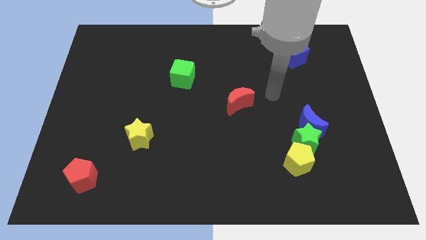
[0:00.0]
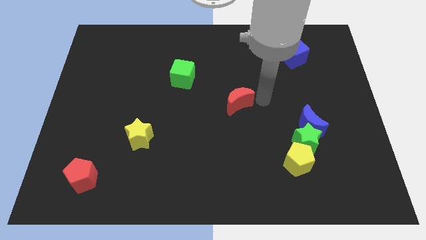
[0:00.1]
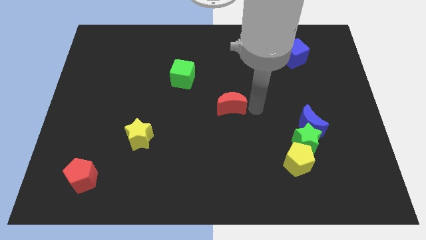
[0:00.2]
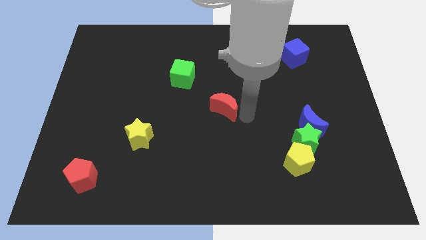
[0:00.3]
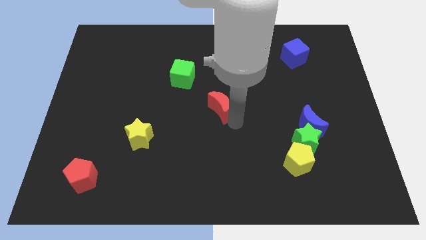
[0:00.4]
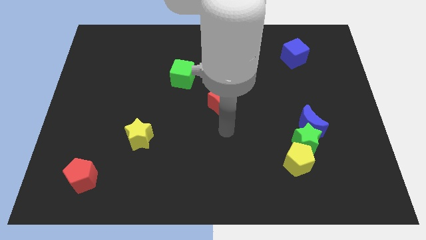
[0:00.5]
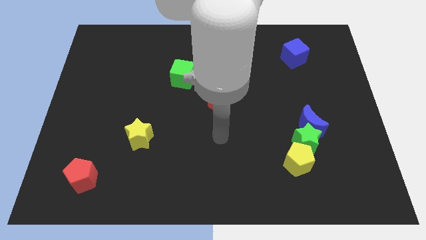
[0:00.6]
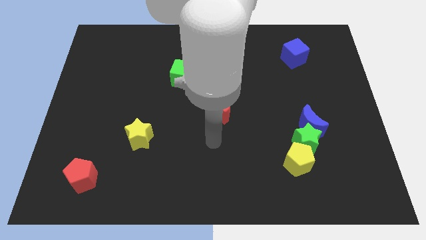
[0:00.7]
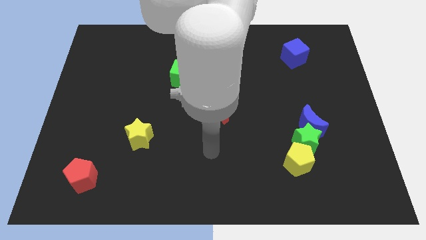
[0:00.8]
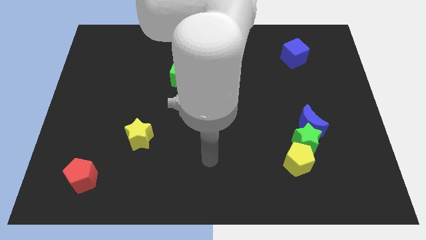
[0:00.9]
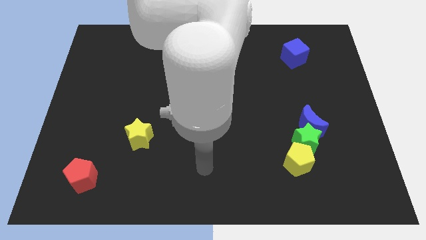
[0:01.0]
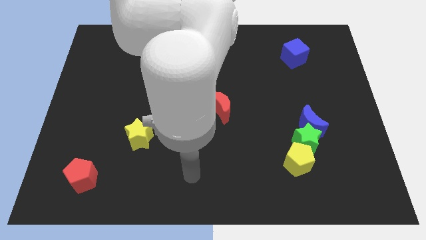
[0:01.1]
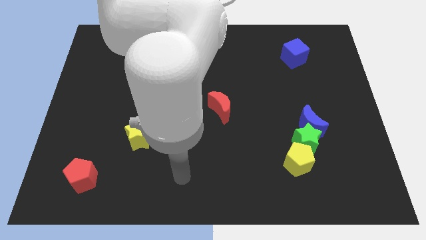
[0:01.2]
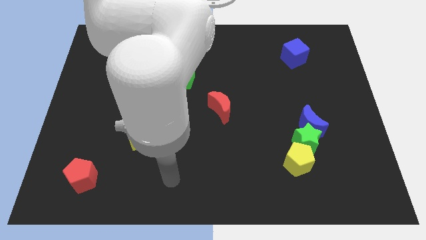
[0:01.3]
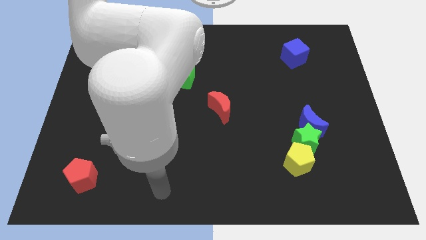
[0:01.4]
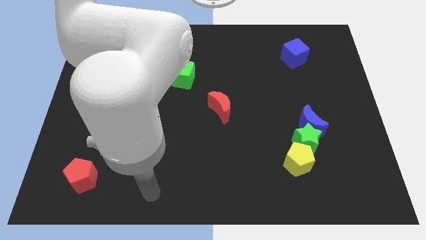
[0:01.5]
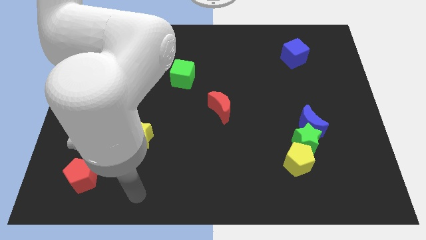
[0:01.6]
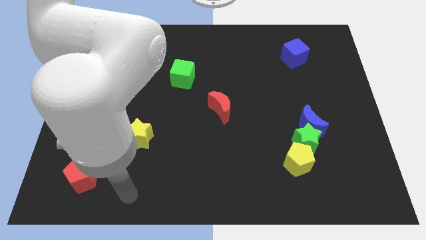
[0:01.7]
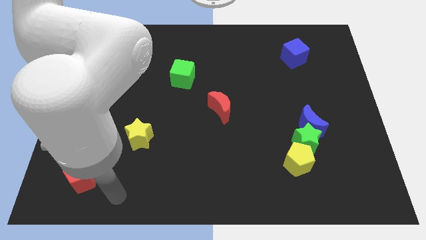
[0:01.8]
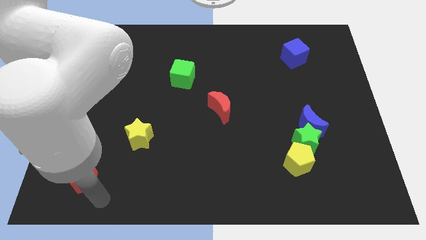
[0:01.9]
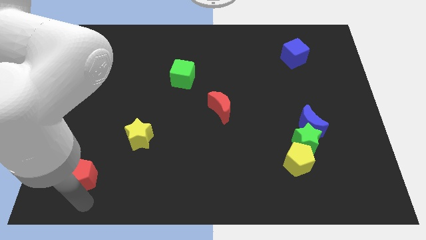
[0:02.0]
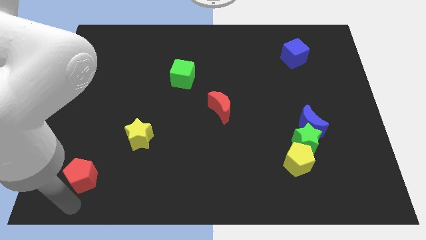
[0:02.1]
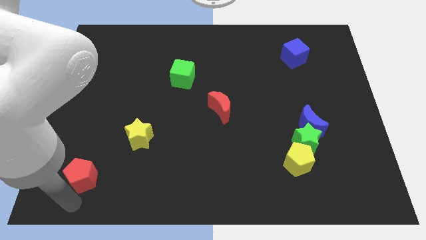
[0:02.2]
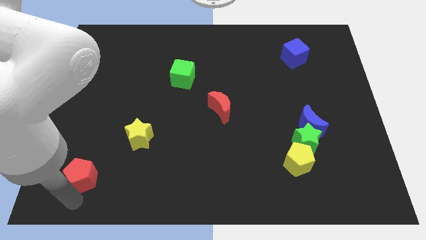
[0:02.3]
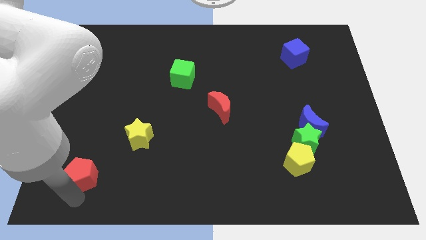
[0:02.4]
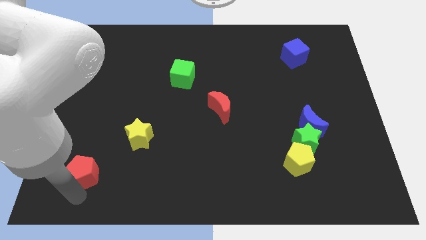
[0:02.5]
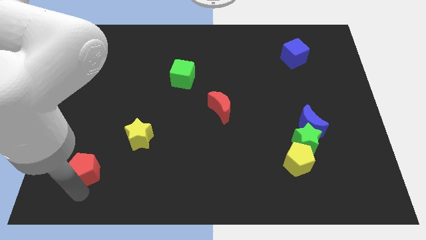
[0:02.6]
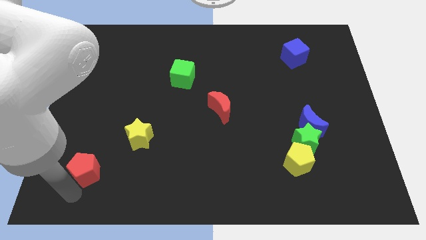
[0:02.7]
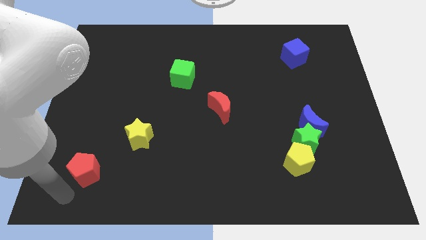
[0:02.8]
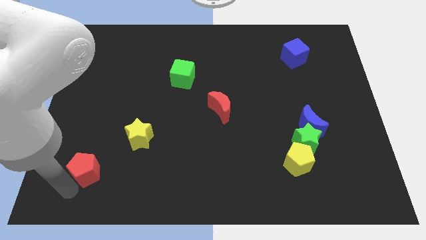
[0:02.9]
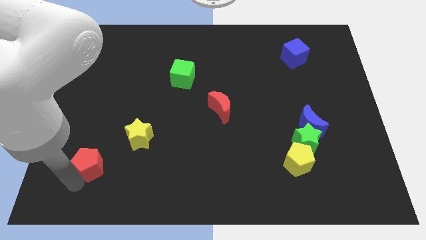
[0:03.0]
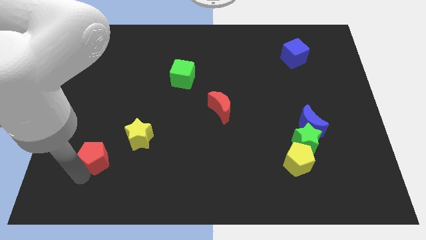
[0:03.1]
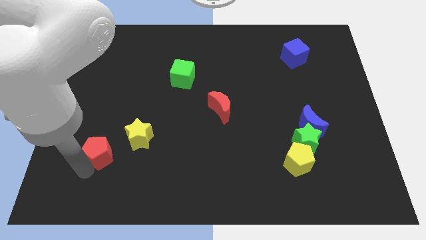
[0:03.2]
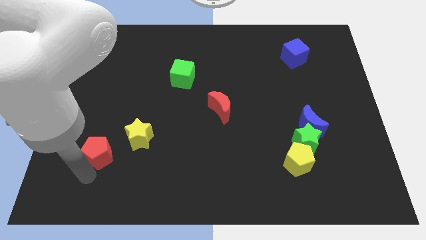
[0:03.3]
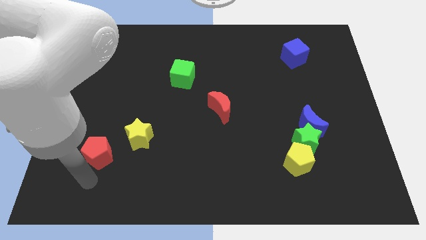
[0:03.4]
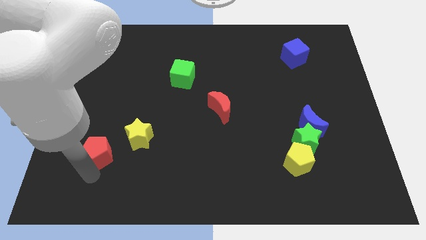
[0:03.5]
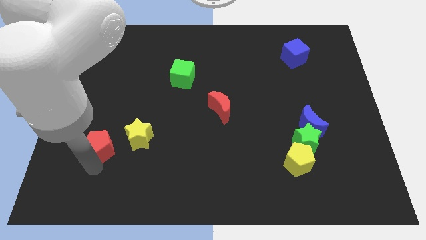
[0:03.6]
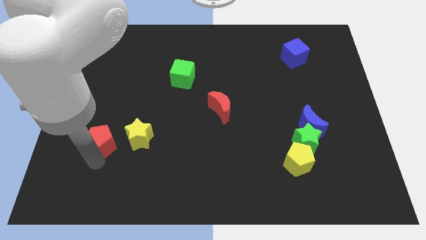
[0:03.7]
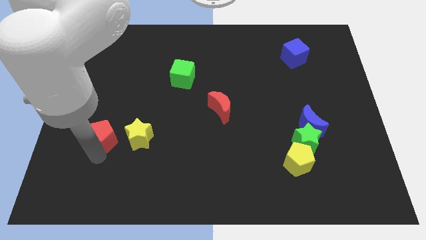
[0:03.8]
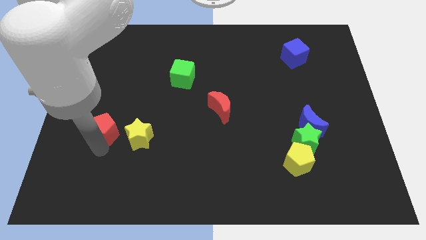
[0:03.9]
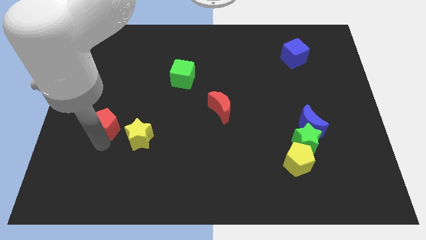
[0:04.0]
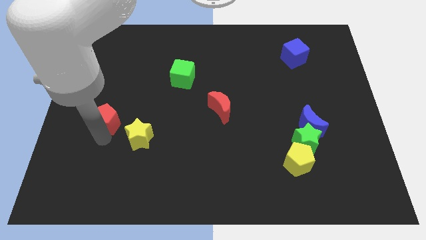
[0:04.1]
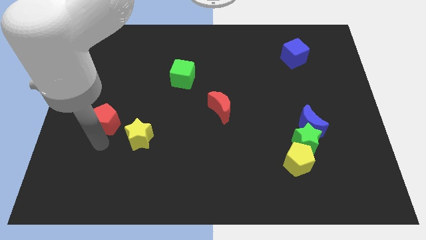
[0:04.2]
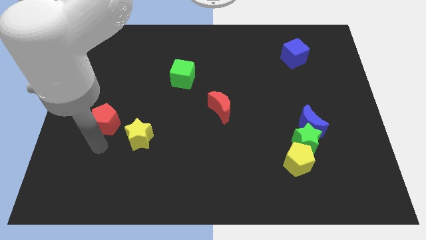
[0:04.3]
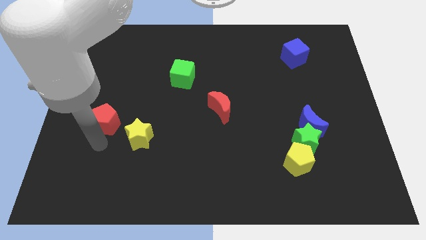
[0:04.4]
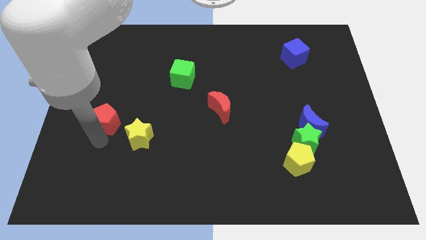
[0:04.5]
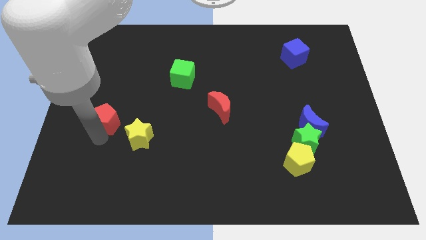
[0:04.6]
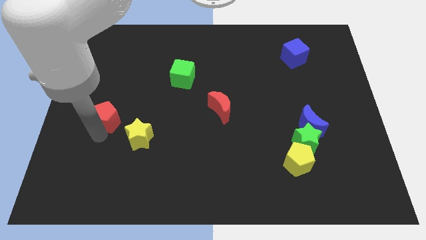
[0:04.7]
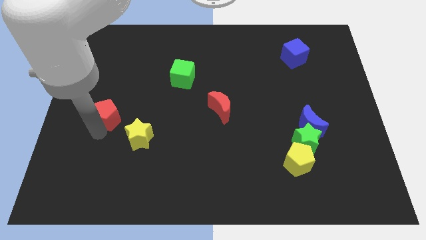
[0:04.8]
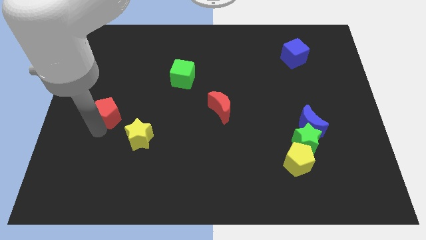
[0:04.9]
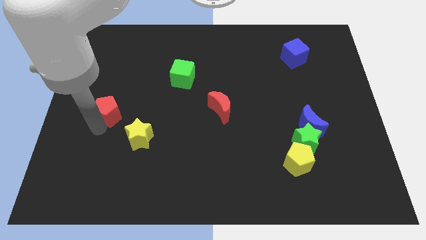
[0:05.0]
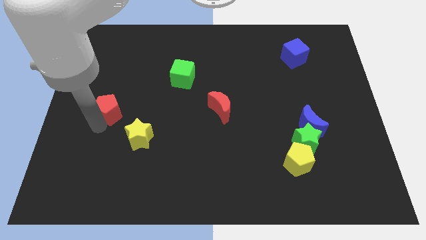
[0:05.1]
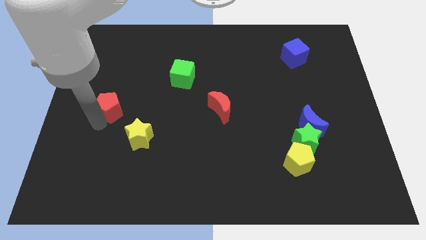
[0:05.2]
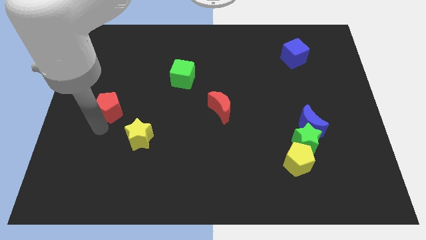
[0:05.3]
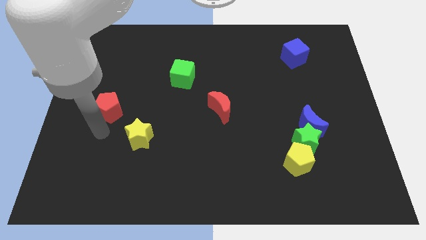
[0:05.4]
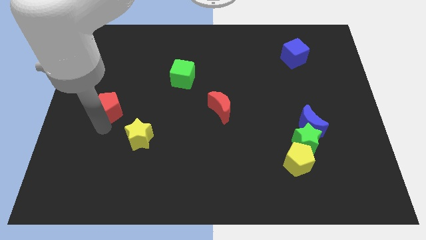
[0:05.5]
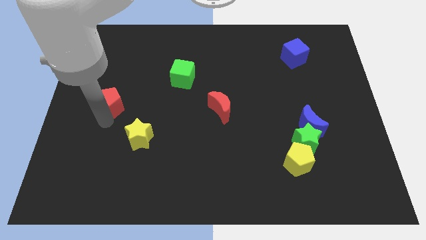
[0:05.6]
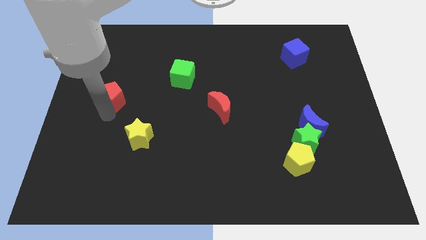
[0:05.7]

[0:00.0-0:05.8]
move the red pentagon up

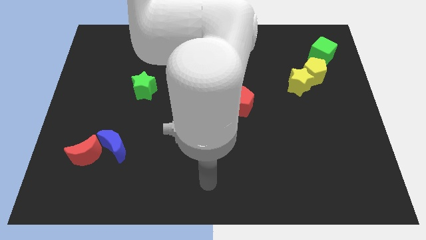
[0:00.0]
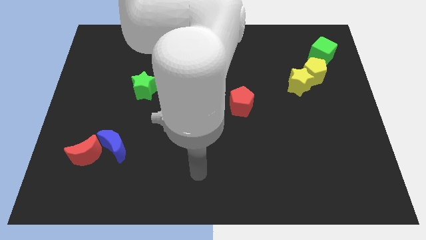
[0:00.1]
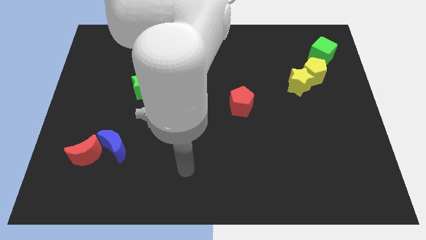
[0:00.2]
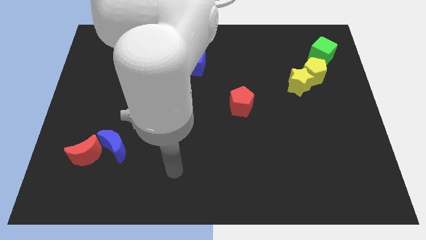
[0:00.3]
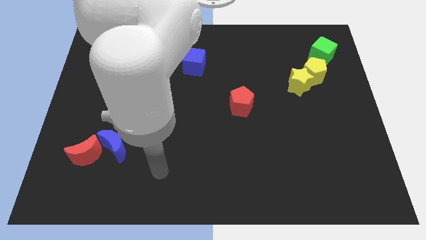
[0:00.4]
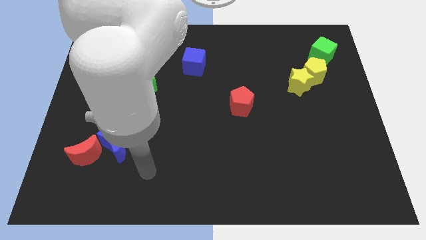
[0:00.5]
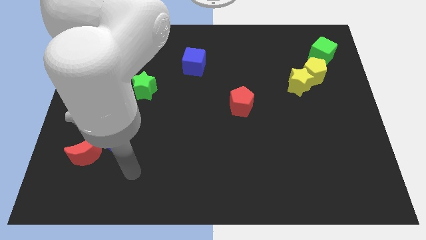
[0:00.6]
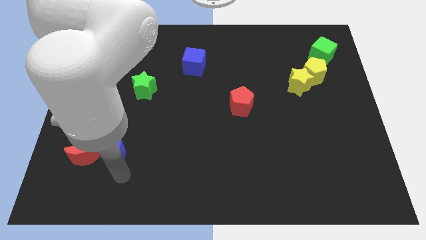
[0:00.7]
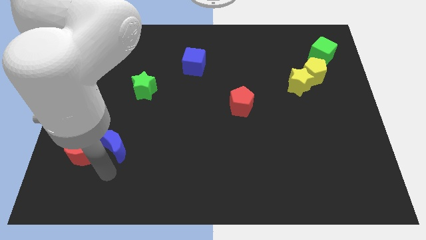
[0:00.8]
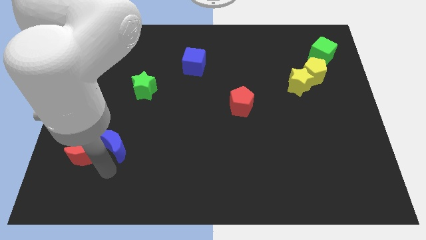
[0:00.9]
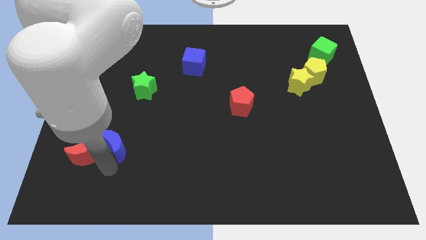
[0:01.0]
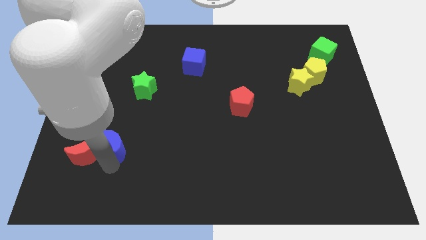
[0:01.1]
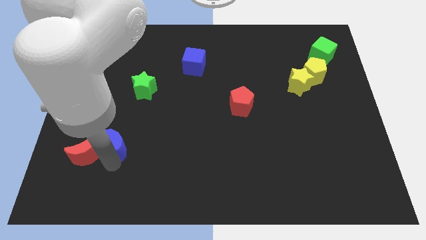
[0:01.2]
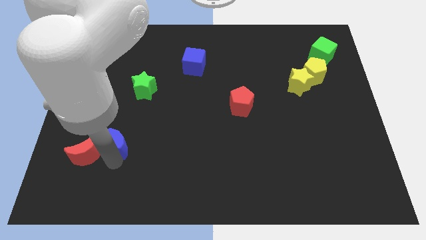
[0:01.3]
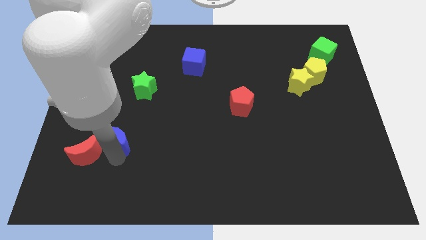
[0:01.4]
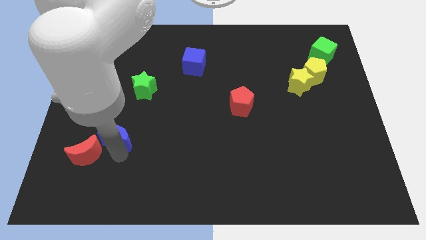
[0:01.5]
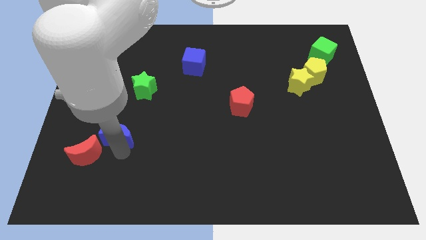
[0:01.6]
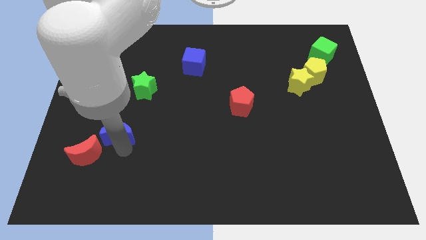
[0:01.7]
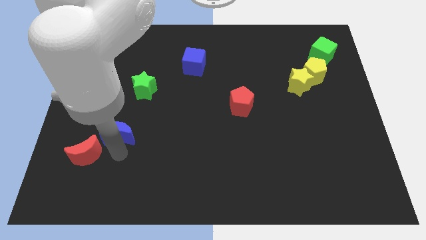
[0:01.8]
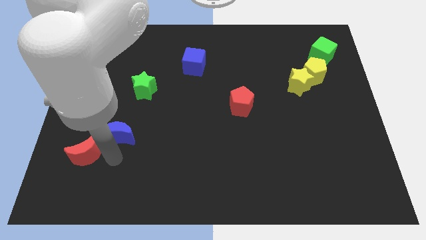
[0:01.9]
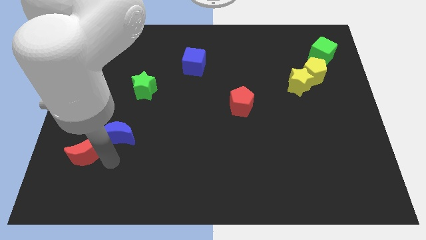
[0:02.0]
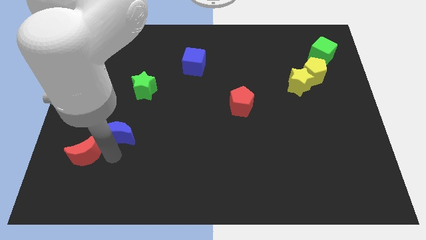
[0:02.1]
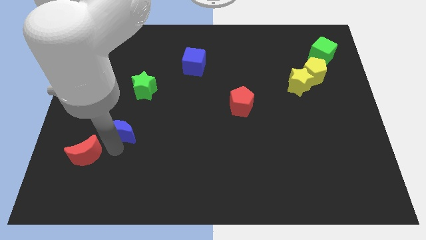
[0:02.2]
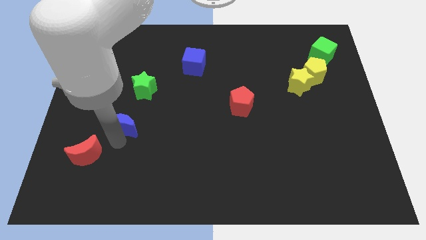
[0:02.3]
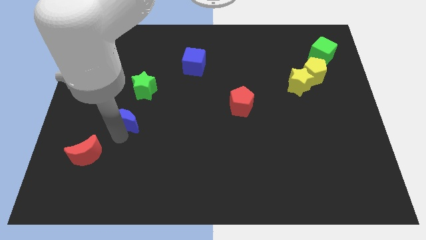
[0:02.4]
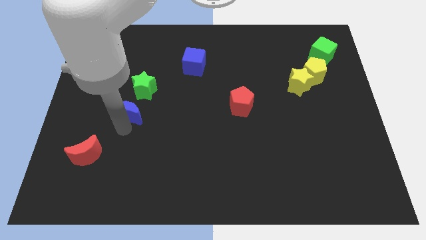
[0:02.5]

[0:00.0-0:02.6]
push the blue moon upwards a little

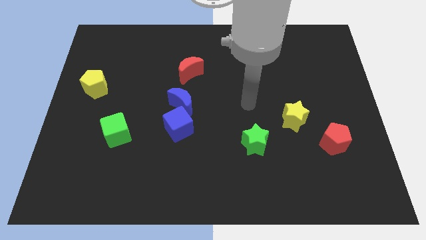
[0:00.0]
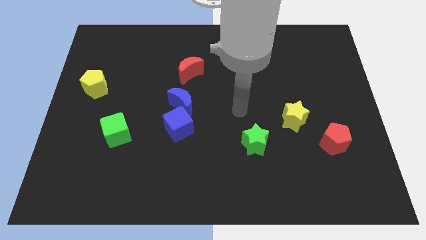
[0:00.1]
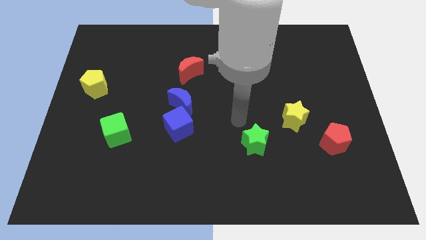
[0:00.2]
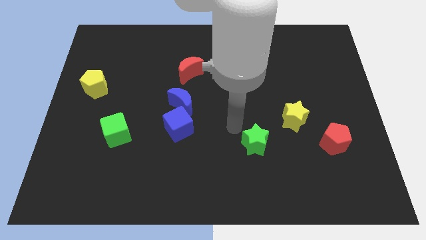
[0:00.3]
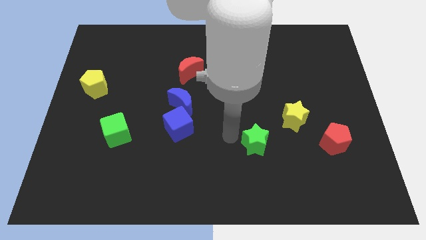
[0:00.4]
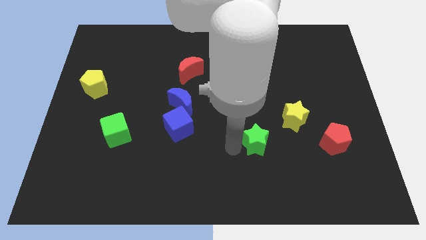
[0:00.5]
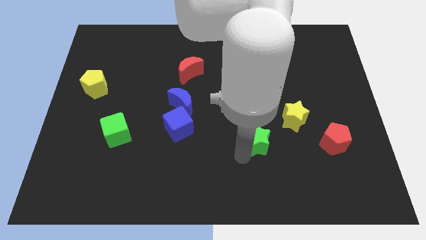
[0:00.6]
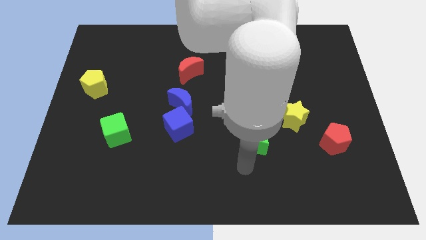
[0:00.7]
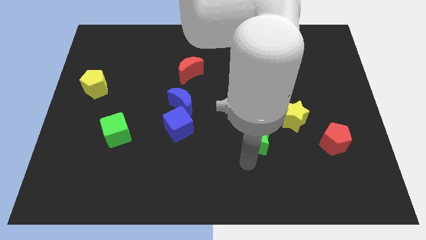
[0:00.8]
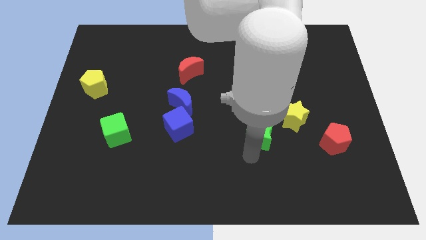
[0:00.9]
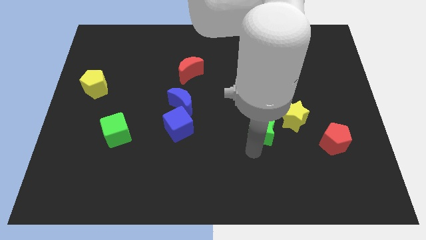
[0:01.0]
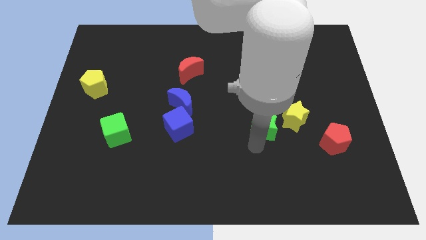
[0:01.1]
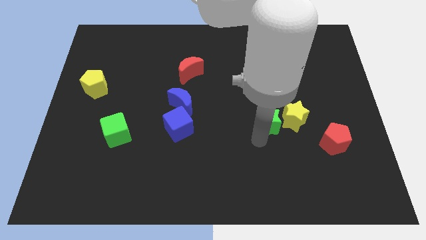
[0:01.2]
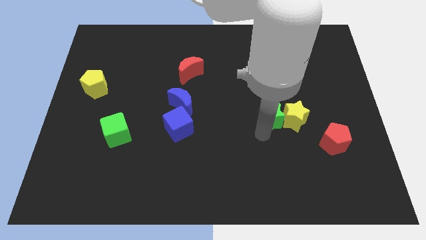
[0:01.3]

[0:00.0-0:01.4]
move the green star somewhat upwards and right
